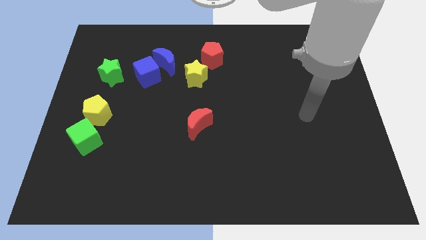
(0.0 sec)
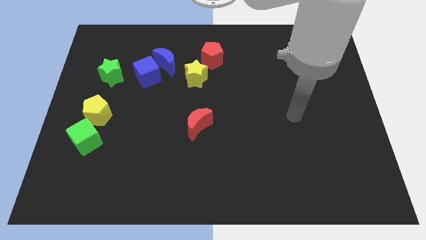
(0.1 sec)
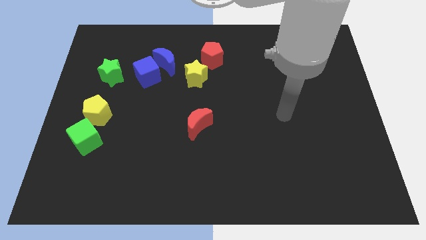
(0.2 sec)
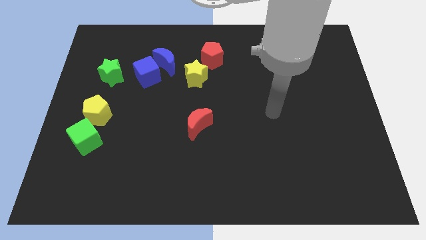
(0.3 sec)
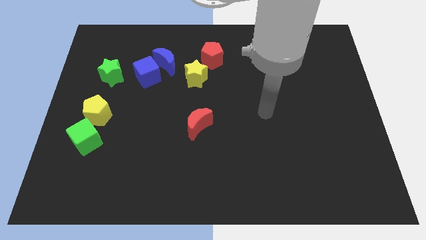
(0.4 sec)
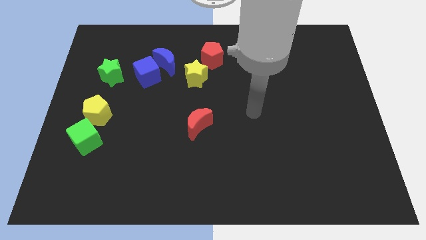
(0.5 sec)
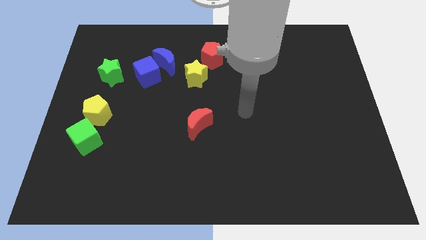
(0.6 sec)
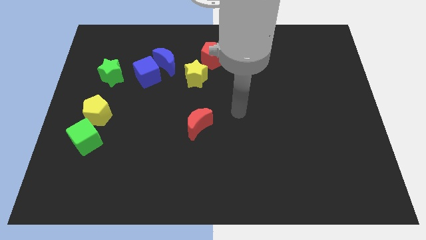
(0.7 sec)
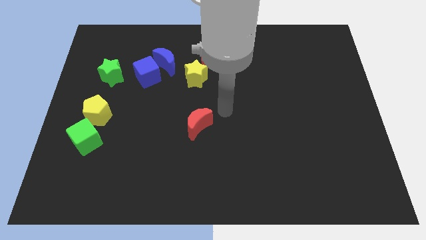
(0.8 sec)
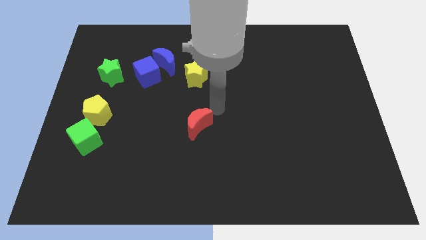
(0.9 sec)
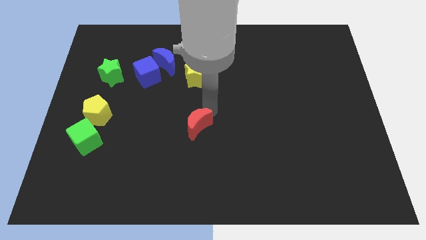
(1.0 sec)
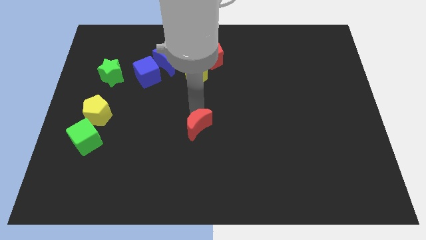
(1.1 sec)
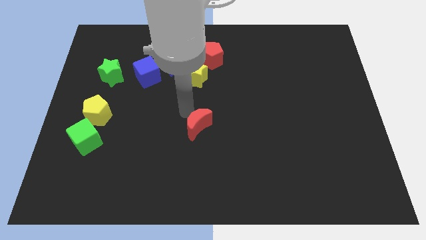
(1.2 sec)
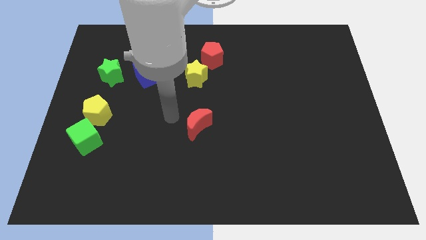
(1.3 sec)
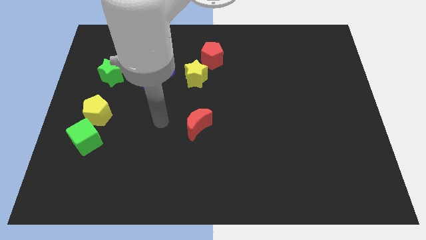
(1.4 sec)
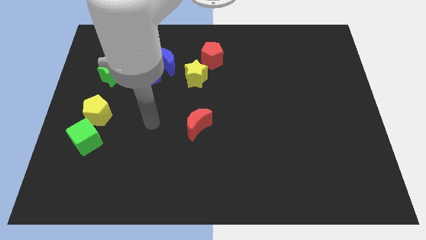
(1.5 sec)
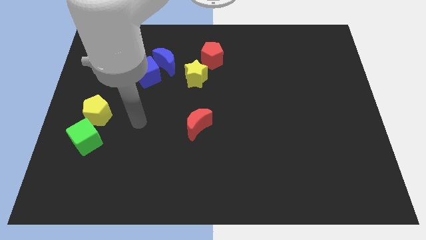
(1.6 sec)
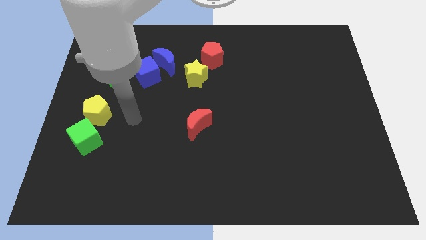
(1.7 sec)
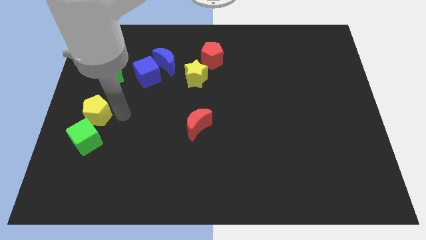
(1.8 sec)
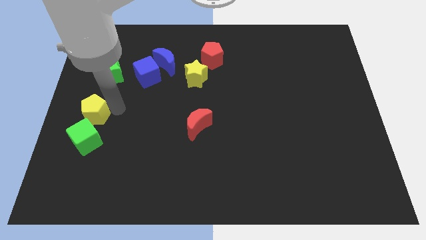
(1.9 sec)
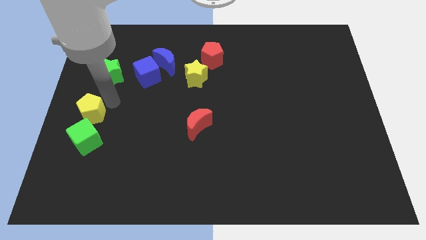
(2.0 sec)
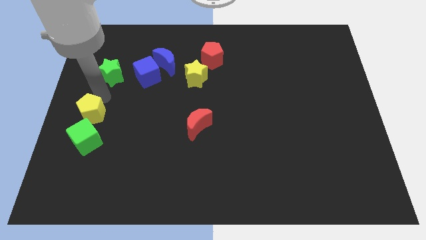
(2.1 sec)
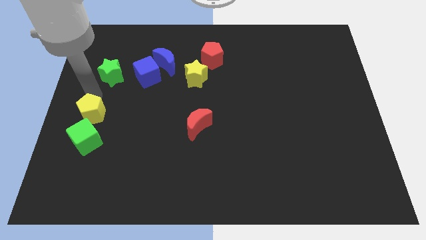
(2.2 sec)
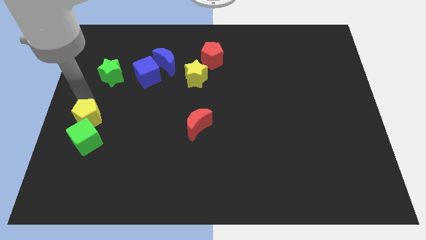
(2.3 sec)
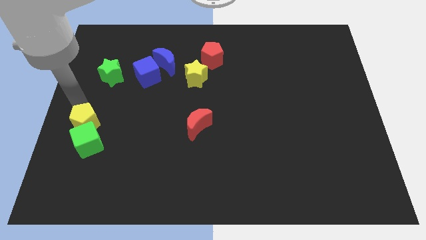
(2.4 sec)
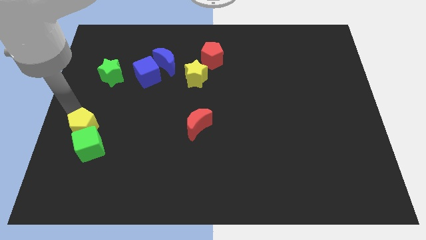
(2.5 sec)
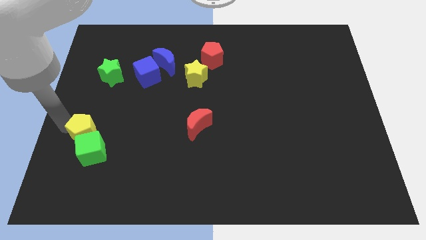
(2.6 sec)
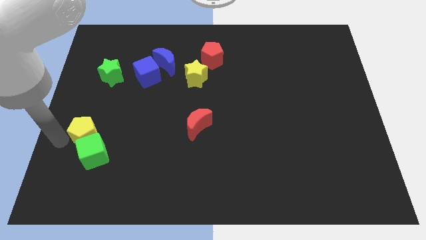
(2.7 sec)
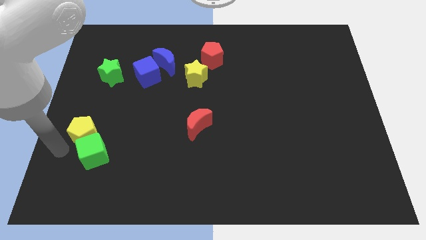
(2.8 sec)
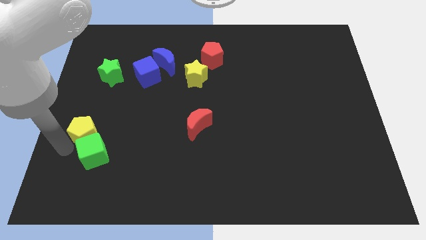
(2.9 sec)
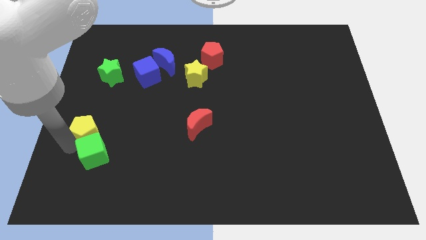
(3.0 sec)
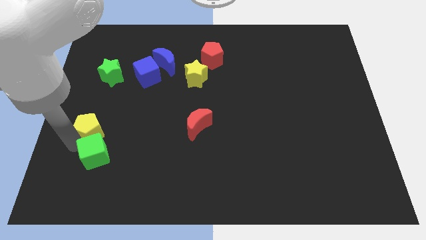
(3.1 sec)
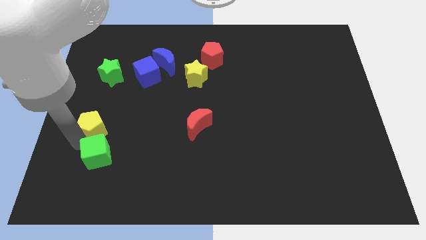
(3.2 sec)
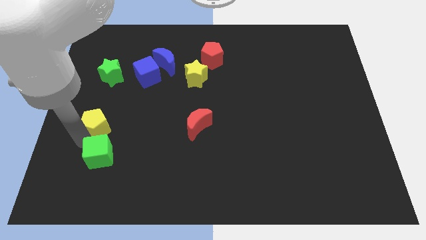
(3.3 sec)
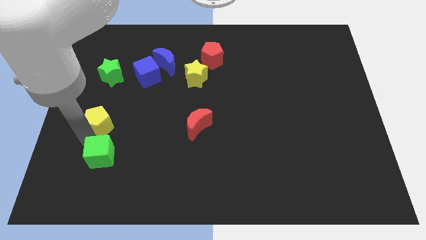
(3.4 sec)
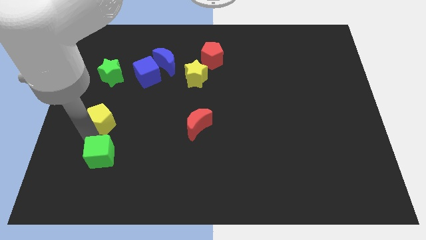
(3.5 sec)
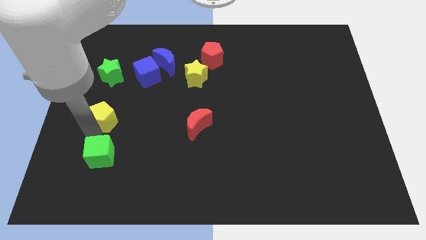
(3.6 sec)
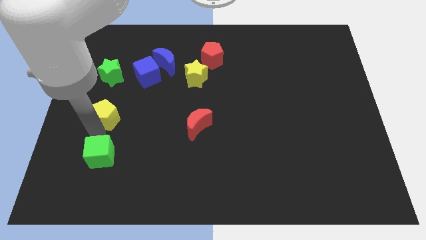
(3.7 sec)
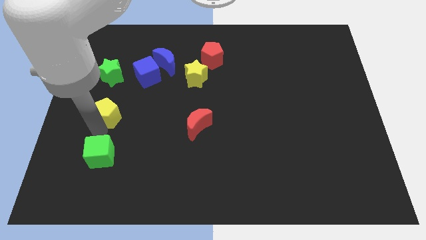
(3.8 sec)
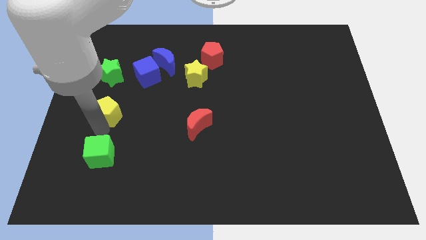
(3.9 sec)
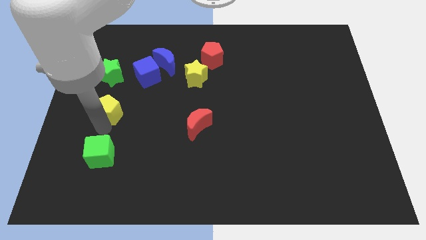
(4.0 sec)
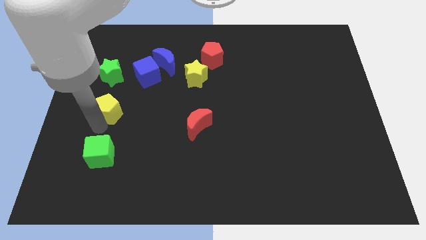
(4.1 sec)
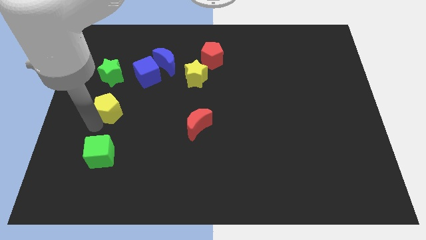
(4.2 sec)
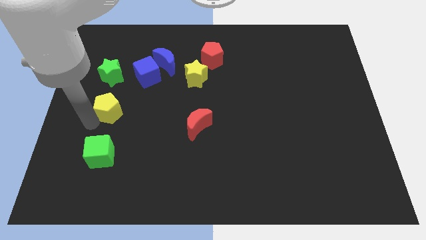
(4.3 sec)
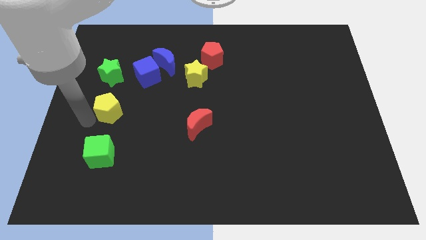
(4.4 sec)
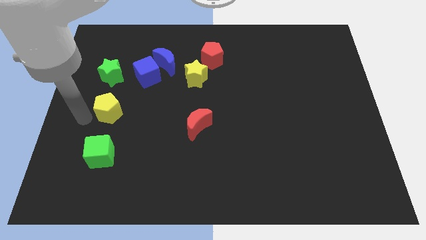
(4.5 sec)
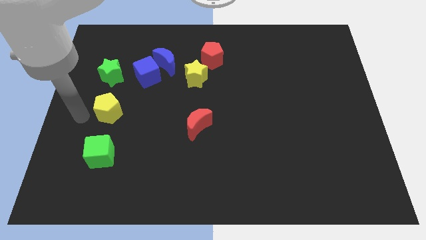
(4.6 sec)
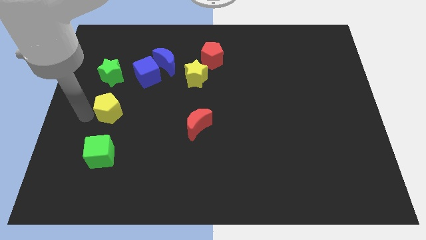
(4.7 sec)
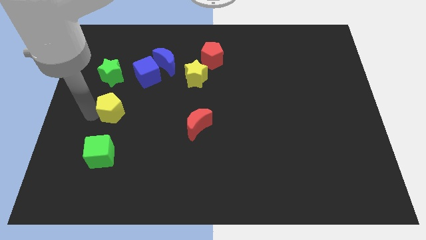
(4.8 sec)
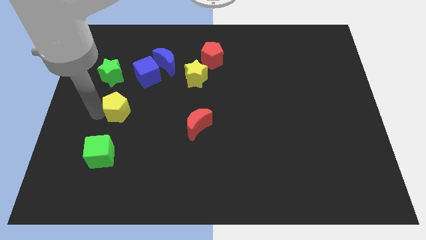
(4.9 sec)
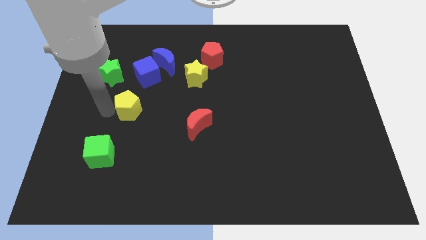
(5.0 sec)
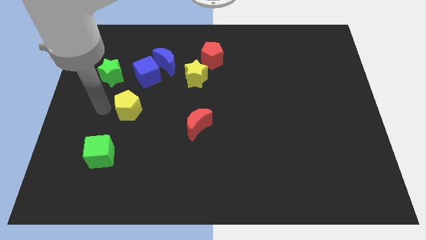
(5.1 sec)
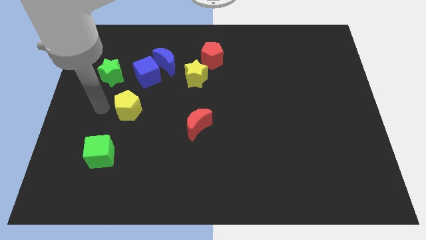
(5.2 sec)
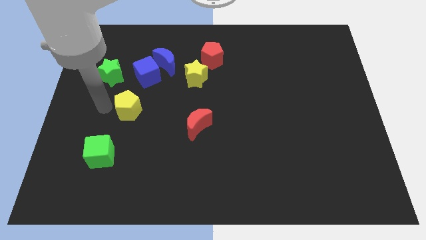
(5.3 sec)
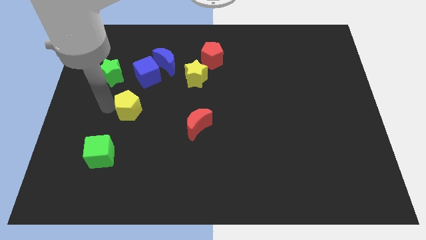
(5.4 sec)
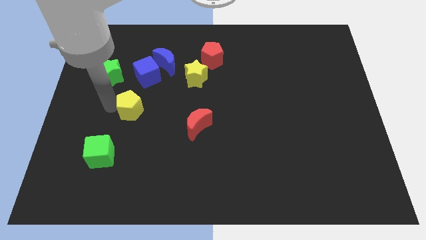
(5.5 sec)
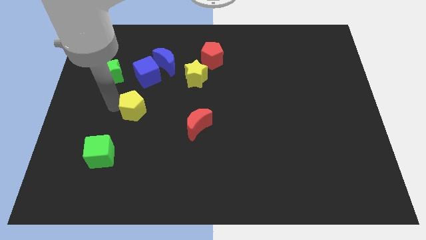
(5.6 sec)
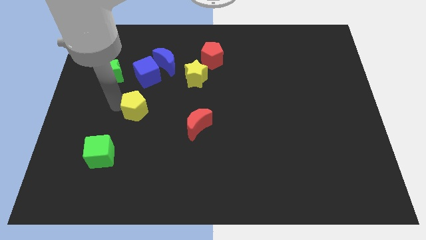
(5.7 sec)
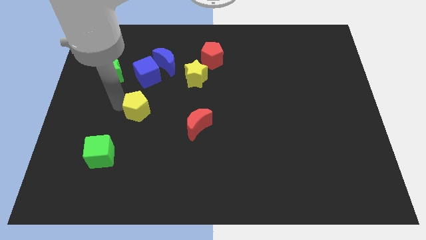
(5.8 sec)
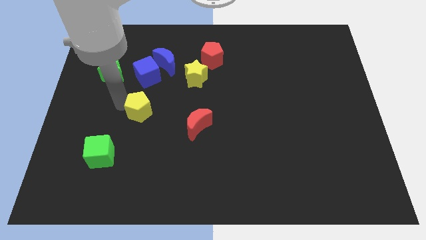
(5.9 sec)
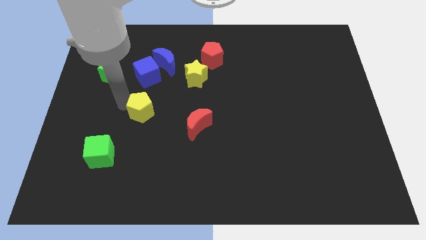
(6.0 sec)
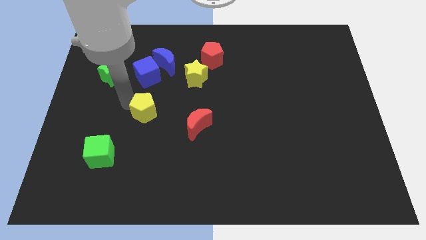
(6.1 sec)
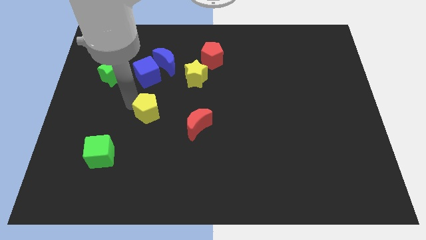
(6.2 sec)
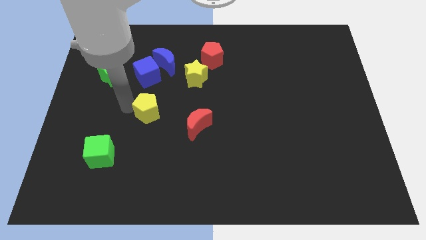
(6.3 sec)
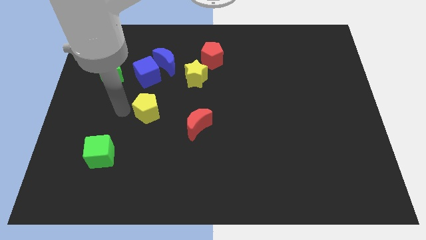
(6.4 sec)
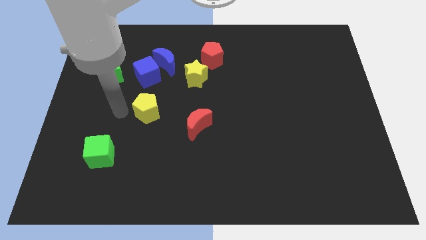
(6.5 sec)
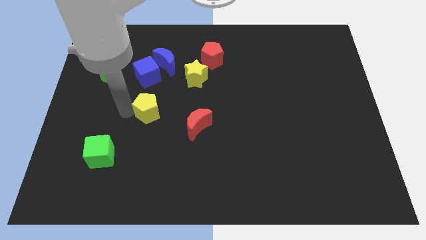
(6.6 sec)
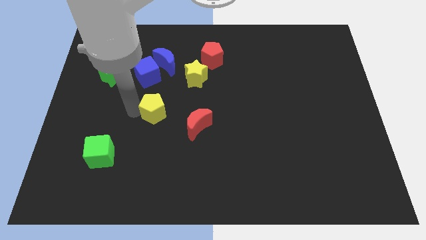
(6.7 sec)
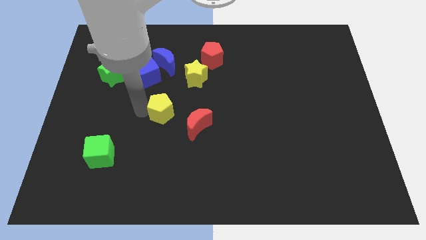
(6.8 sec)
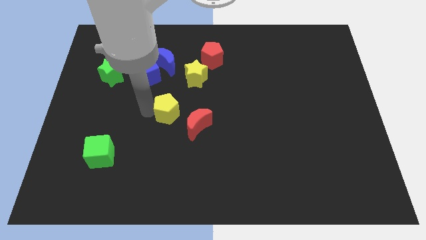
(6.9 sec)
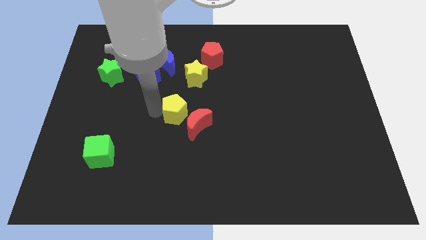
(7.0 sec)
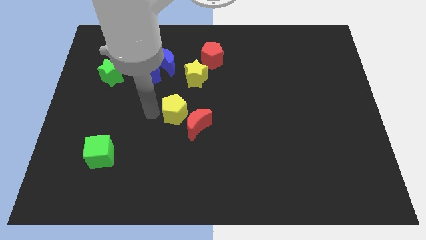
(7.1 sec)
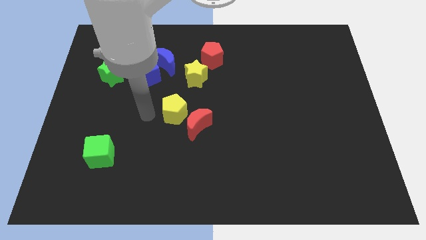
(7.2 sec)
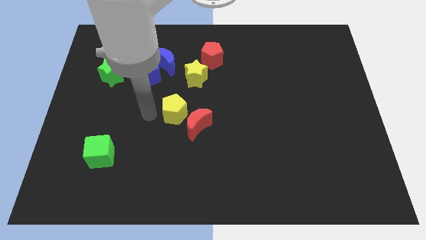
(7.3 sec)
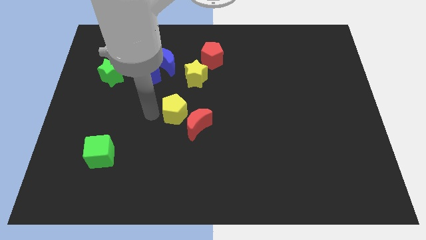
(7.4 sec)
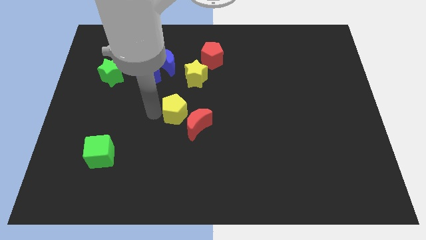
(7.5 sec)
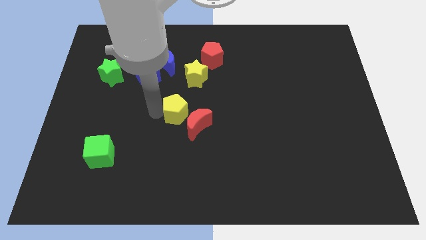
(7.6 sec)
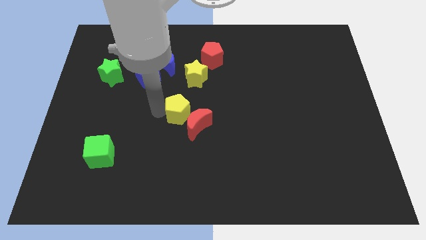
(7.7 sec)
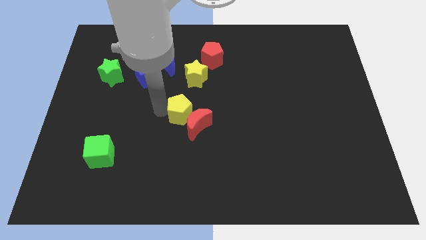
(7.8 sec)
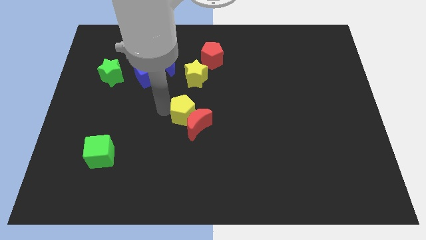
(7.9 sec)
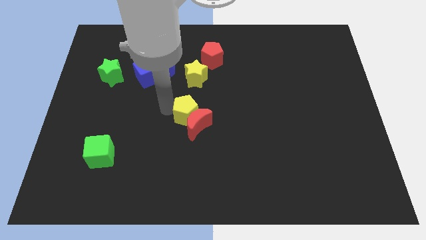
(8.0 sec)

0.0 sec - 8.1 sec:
push the yellow pentagon right

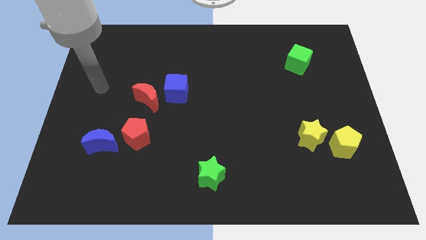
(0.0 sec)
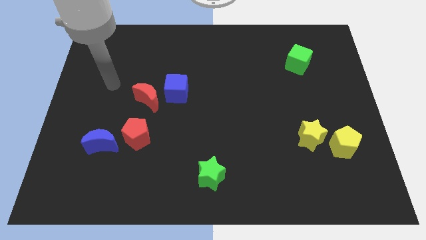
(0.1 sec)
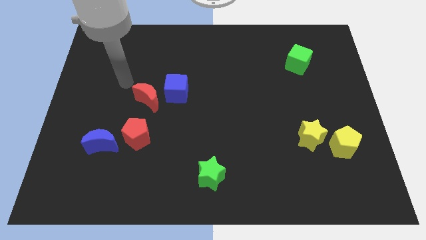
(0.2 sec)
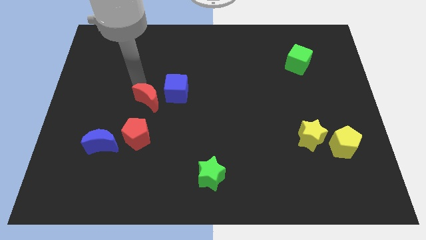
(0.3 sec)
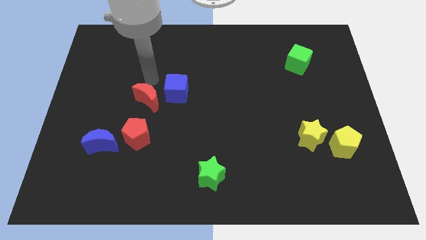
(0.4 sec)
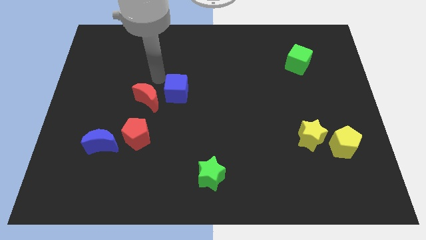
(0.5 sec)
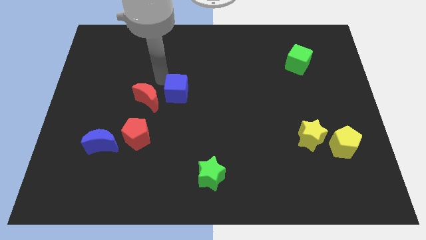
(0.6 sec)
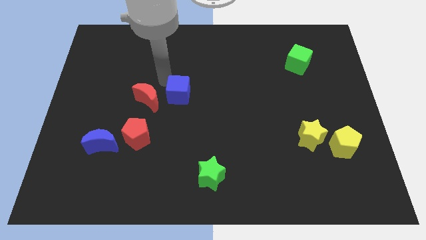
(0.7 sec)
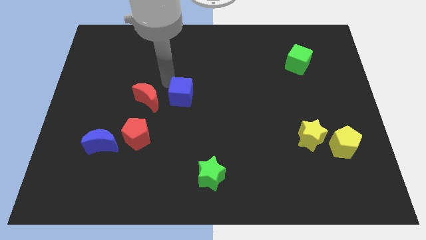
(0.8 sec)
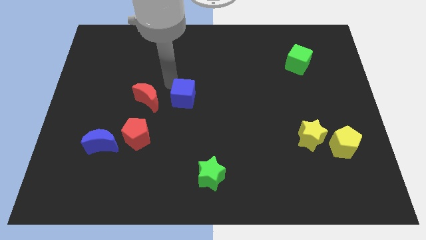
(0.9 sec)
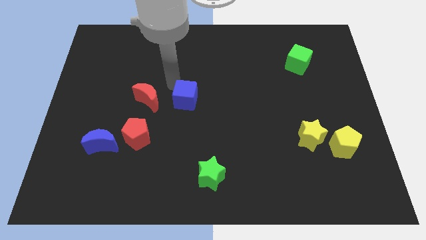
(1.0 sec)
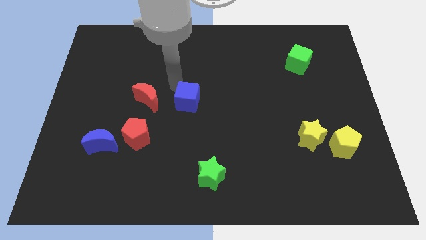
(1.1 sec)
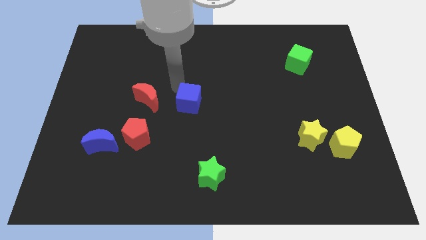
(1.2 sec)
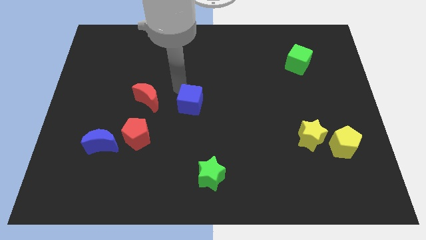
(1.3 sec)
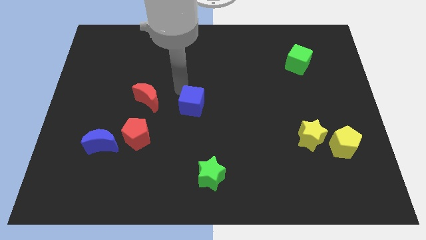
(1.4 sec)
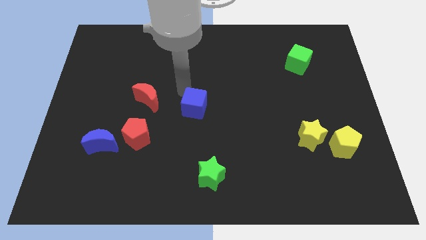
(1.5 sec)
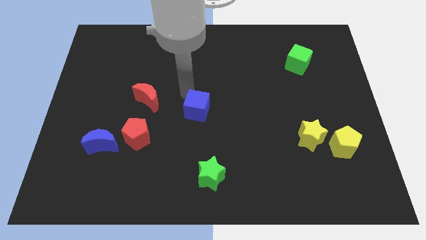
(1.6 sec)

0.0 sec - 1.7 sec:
slightly move the blue cube down and right diagonally
